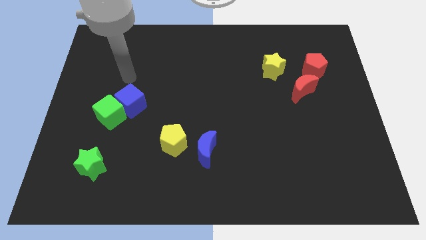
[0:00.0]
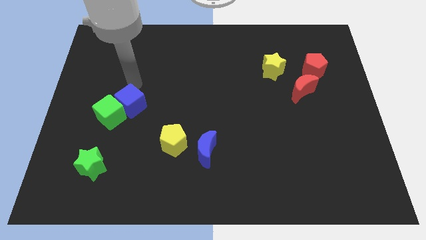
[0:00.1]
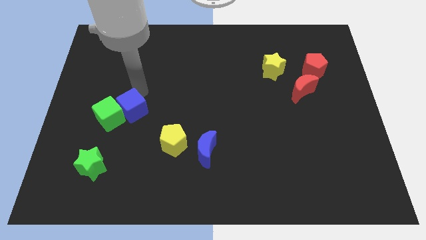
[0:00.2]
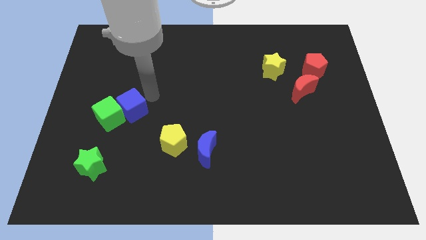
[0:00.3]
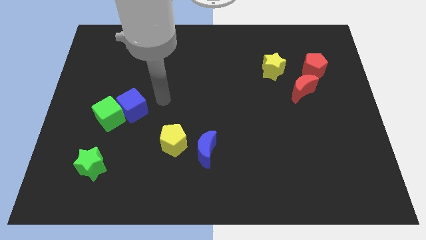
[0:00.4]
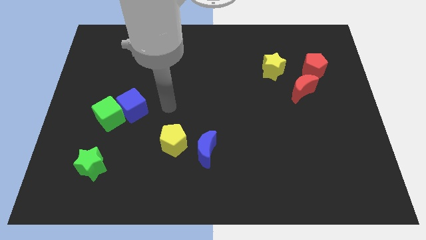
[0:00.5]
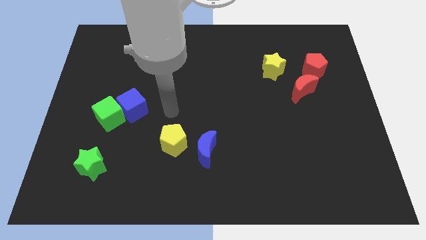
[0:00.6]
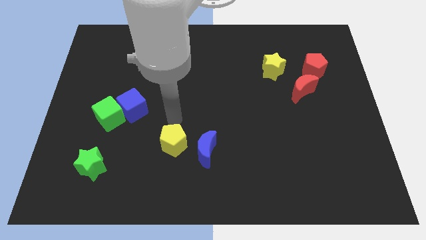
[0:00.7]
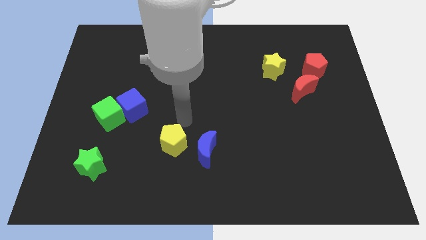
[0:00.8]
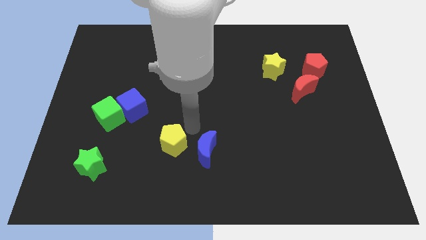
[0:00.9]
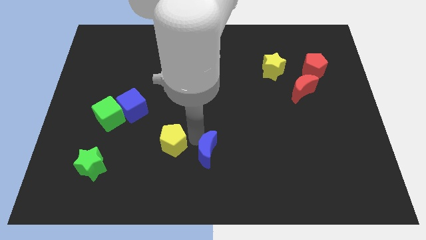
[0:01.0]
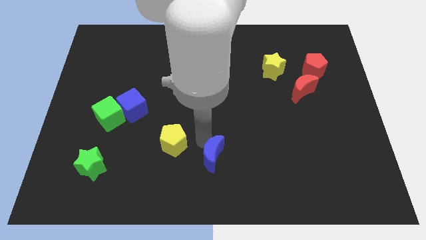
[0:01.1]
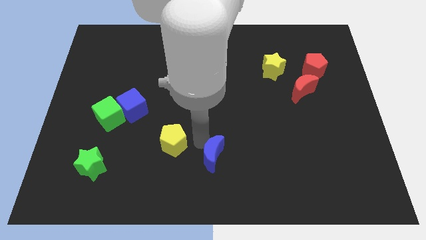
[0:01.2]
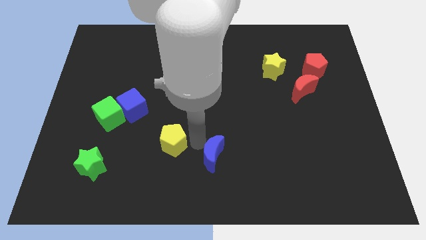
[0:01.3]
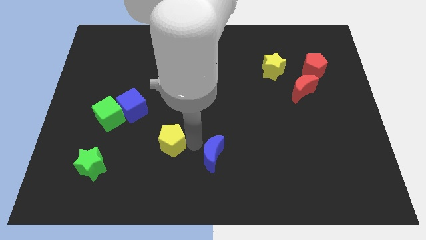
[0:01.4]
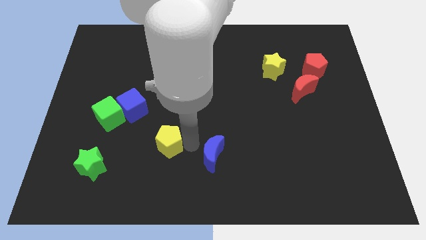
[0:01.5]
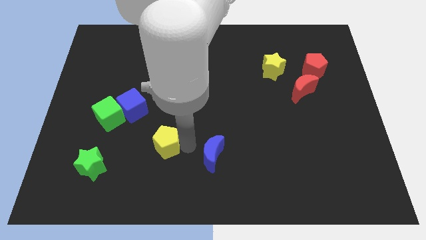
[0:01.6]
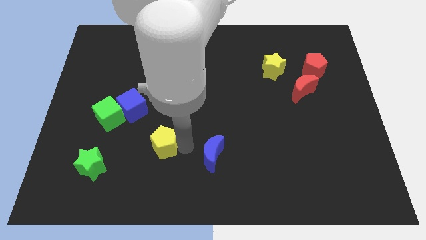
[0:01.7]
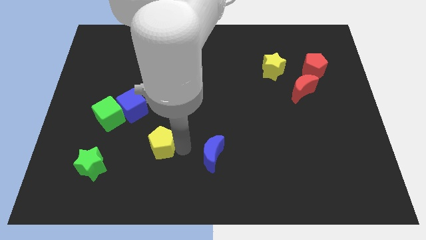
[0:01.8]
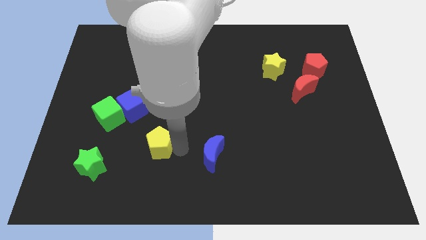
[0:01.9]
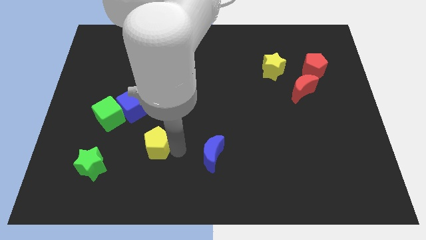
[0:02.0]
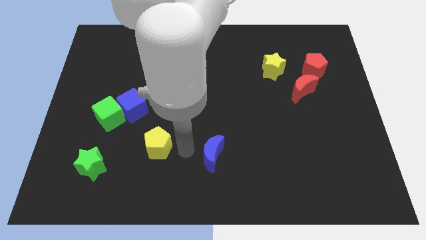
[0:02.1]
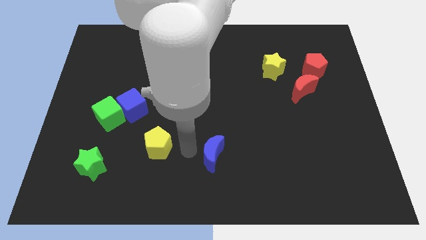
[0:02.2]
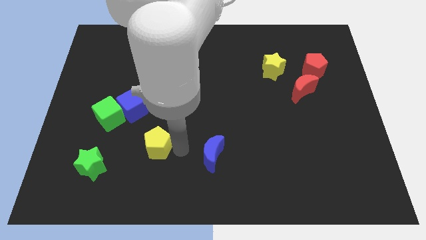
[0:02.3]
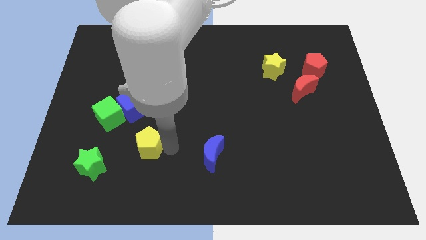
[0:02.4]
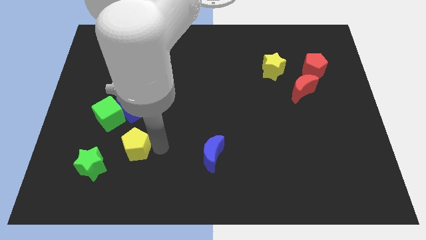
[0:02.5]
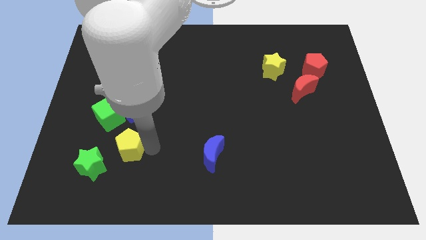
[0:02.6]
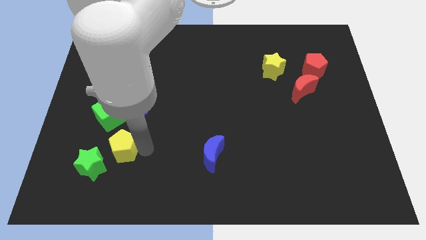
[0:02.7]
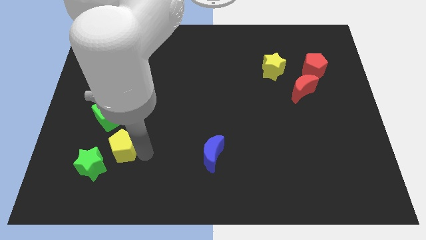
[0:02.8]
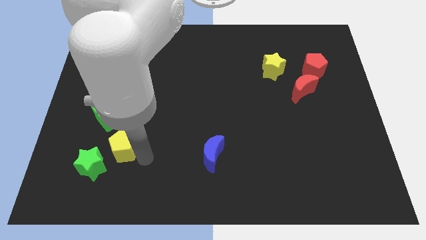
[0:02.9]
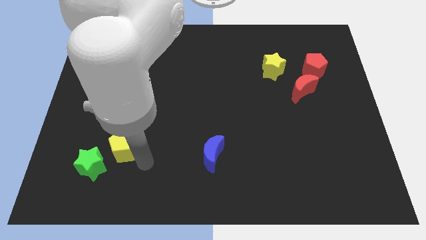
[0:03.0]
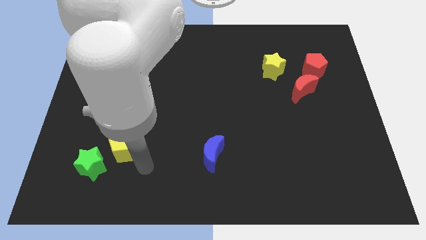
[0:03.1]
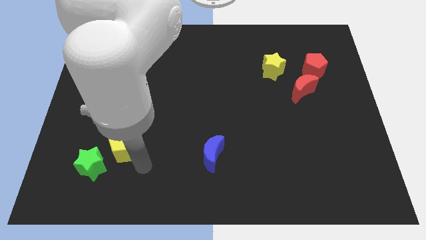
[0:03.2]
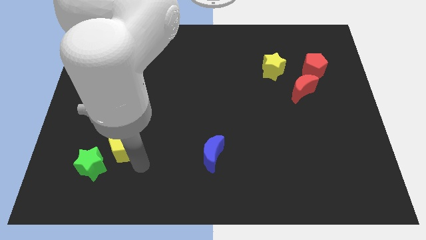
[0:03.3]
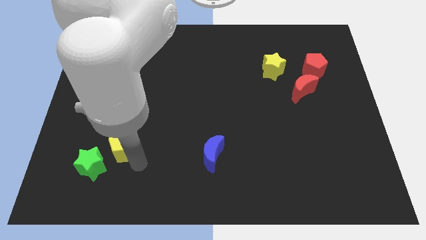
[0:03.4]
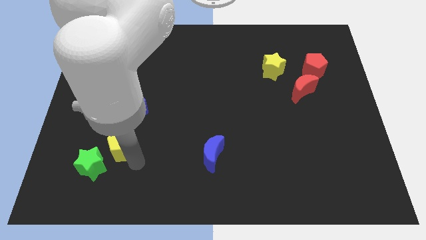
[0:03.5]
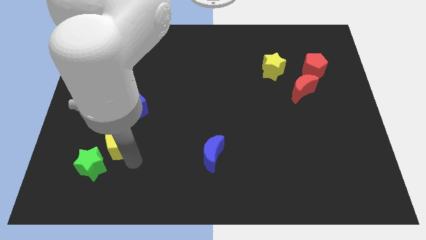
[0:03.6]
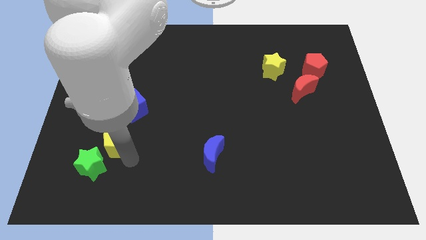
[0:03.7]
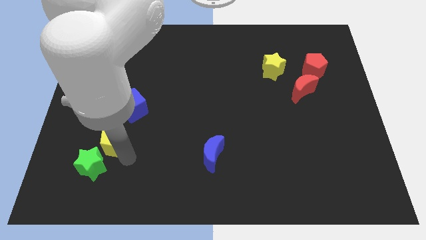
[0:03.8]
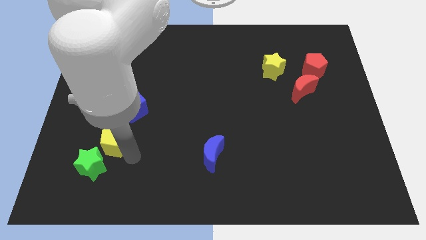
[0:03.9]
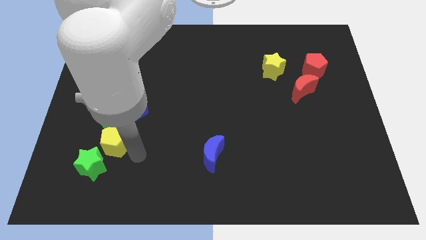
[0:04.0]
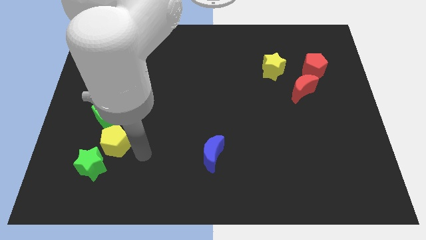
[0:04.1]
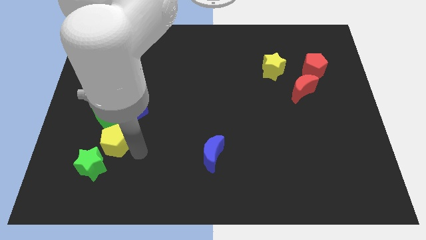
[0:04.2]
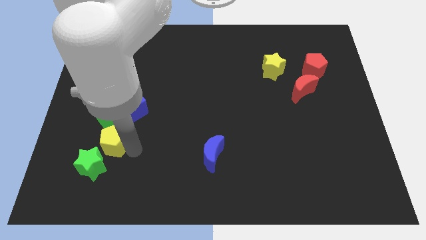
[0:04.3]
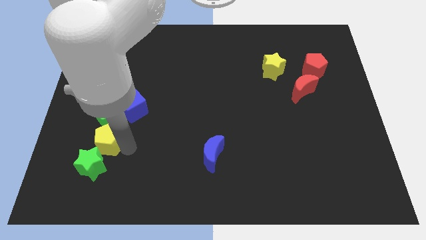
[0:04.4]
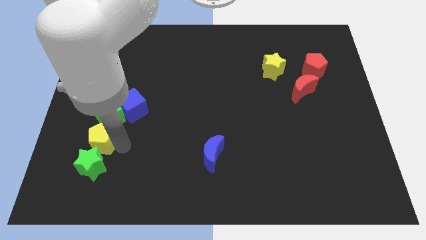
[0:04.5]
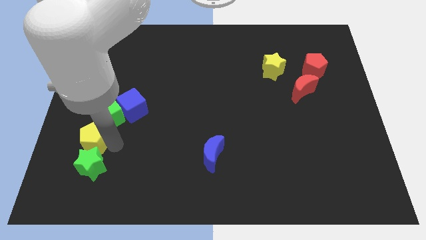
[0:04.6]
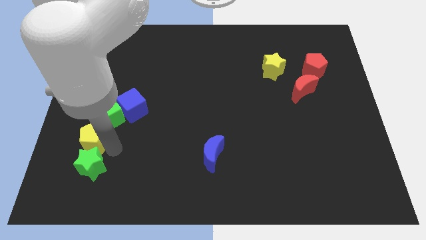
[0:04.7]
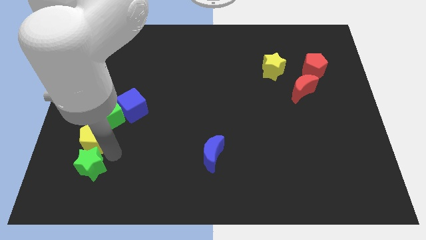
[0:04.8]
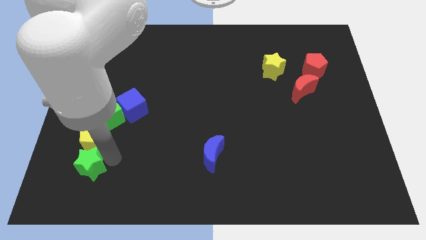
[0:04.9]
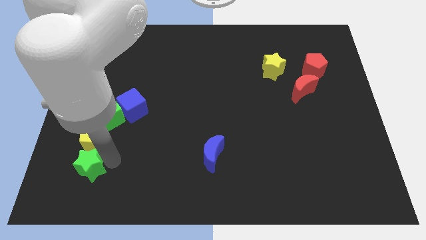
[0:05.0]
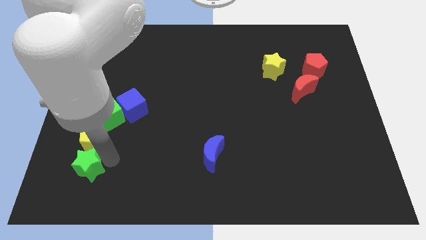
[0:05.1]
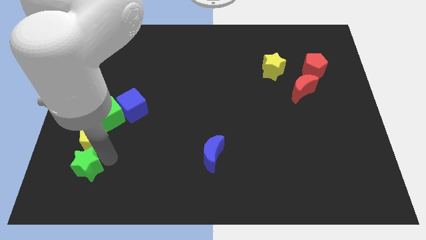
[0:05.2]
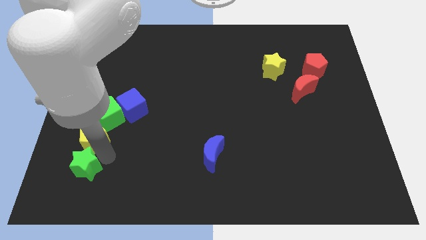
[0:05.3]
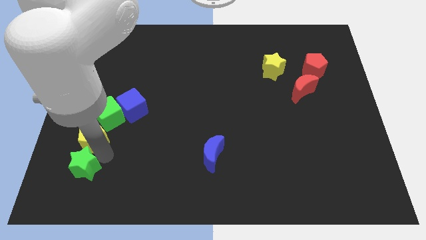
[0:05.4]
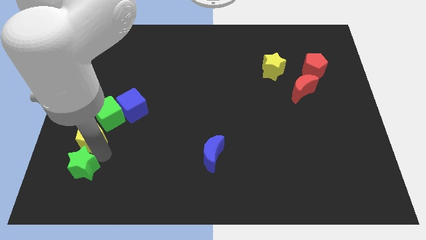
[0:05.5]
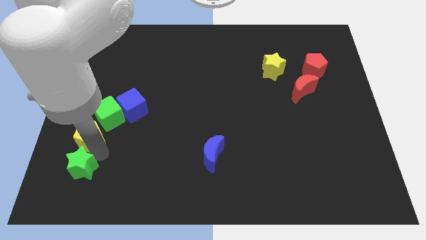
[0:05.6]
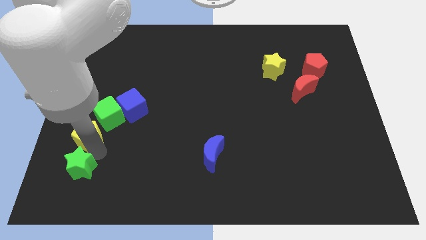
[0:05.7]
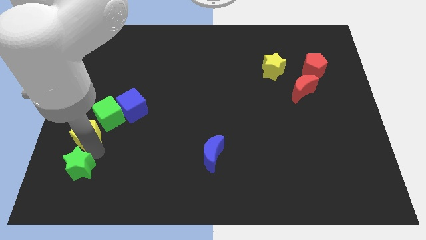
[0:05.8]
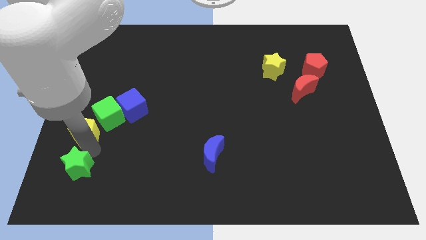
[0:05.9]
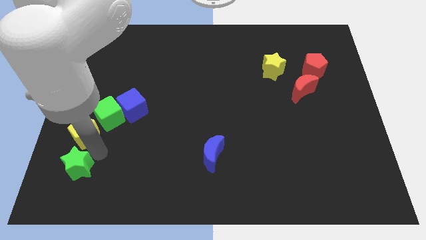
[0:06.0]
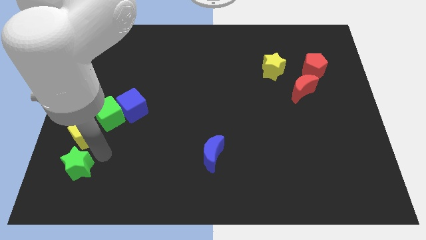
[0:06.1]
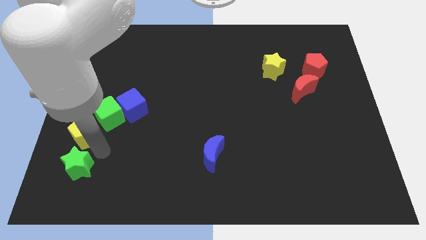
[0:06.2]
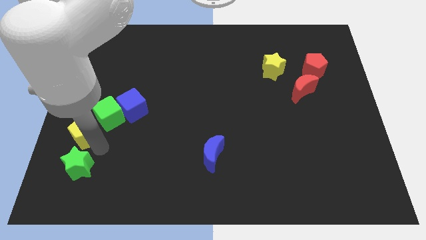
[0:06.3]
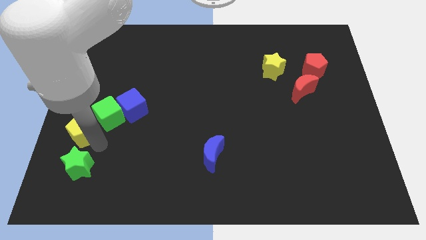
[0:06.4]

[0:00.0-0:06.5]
put the yellow pentagon to the center left

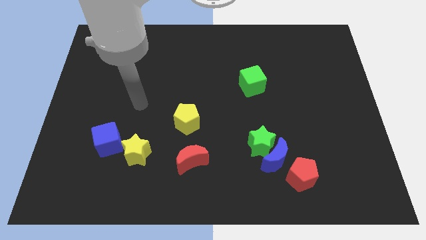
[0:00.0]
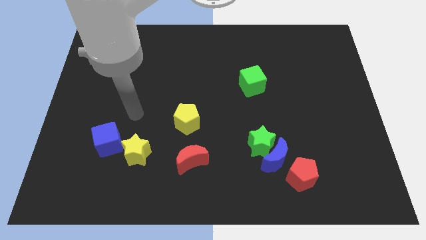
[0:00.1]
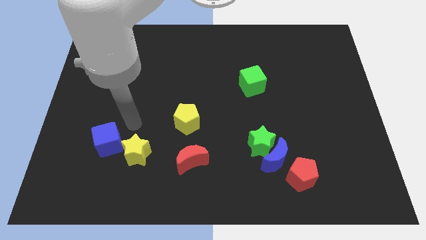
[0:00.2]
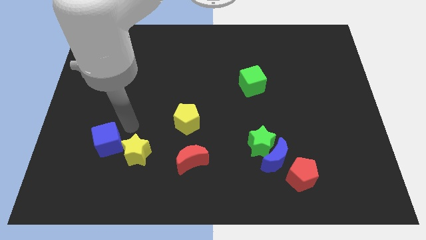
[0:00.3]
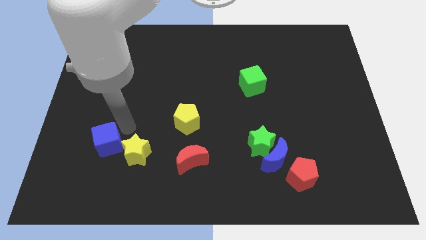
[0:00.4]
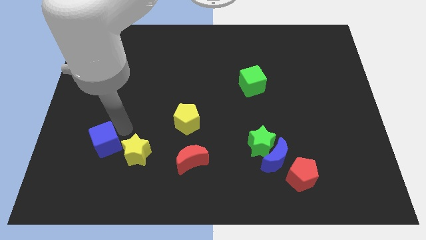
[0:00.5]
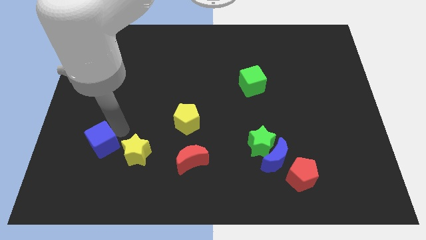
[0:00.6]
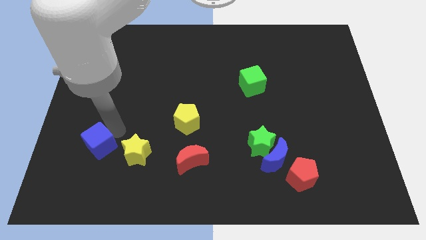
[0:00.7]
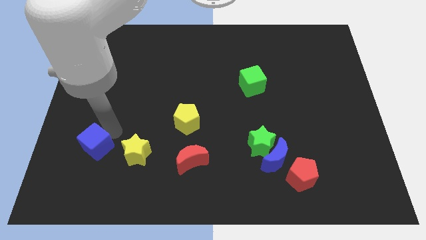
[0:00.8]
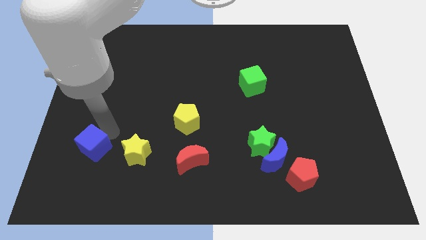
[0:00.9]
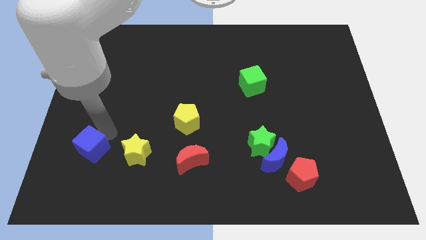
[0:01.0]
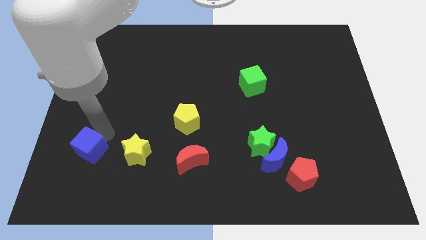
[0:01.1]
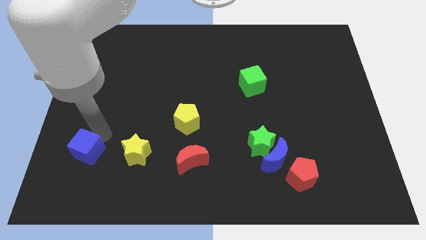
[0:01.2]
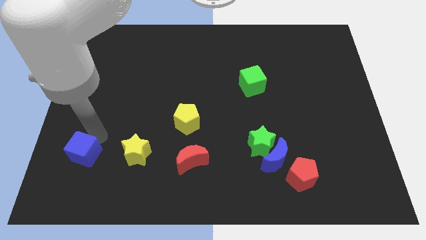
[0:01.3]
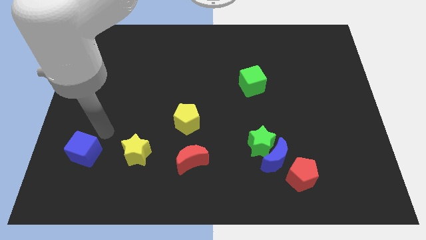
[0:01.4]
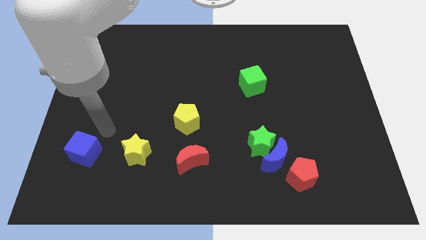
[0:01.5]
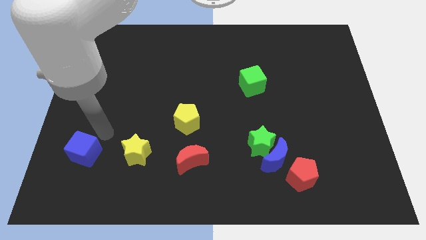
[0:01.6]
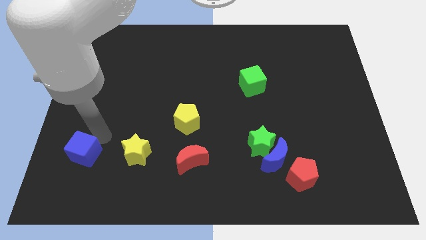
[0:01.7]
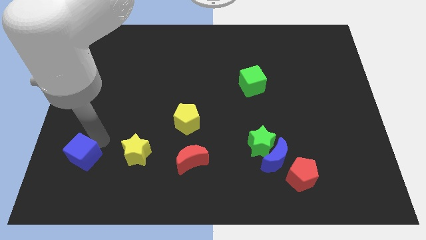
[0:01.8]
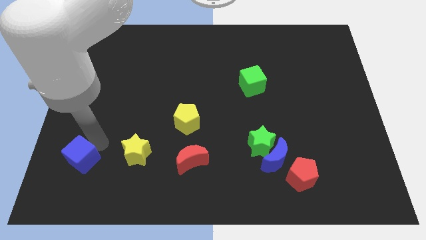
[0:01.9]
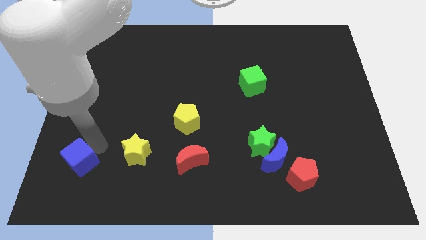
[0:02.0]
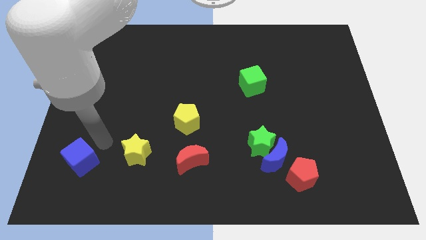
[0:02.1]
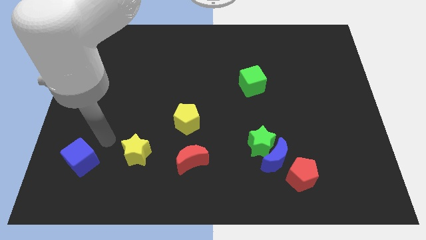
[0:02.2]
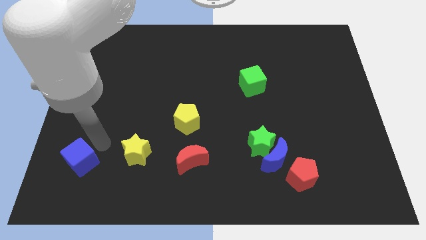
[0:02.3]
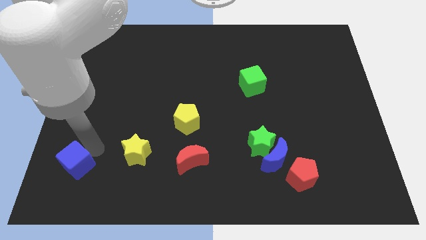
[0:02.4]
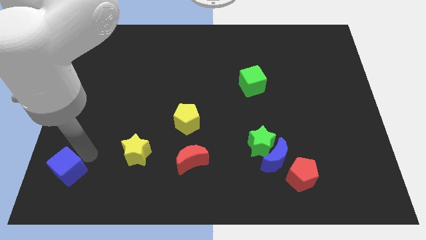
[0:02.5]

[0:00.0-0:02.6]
put the blue cube to the bottom left of the board
